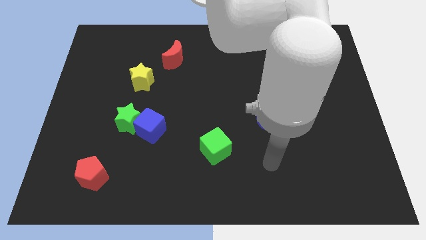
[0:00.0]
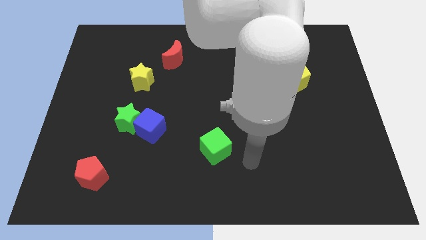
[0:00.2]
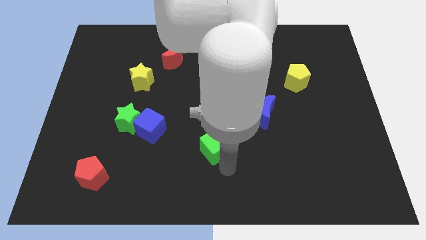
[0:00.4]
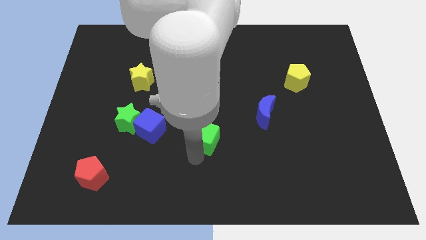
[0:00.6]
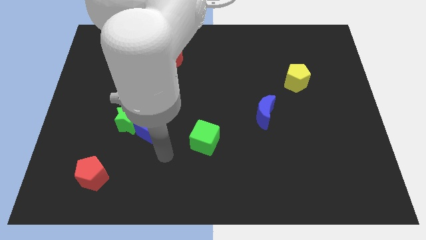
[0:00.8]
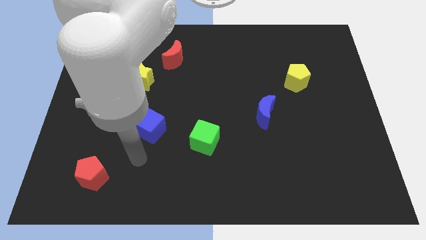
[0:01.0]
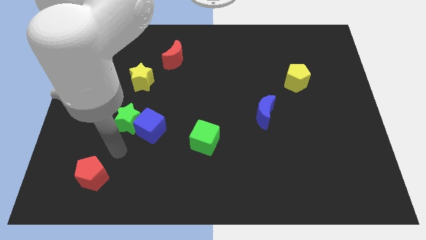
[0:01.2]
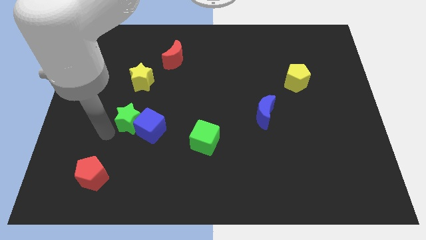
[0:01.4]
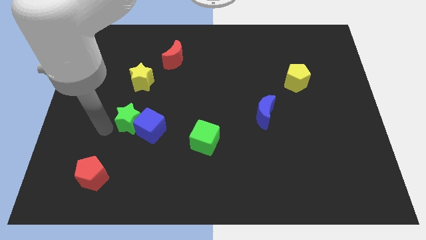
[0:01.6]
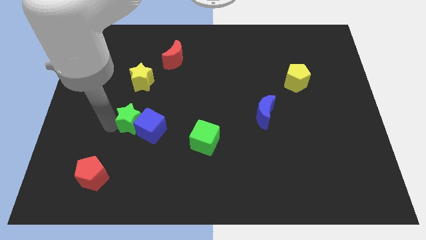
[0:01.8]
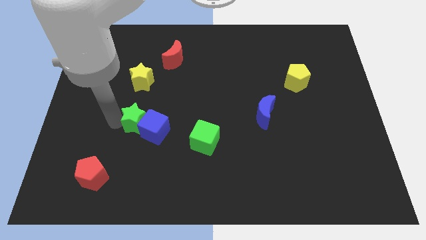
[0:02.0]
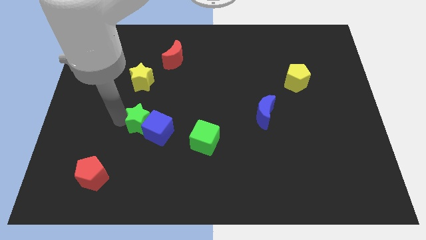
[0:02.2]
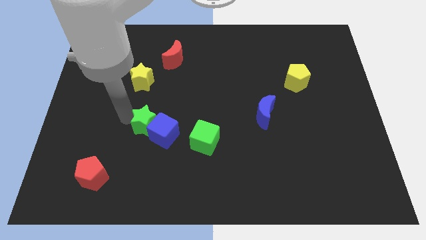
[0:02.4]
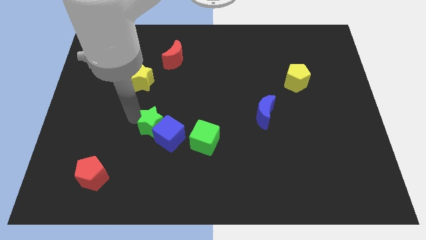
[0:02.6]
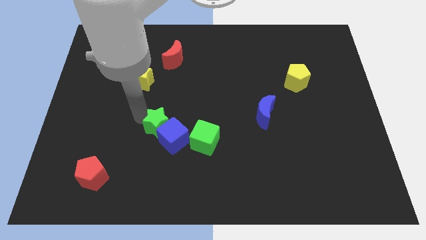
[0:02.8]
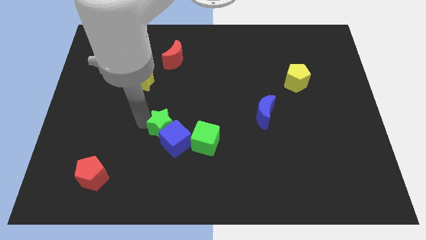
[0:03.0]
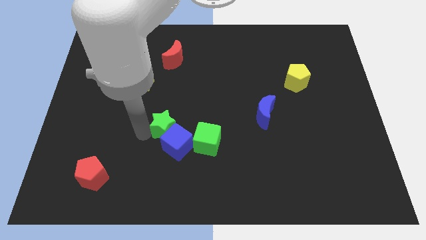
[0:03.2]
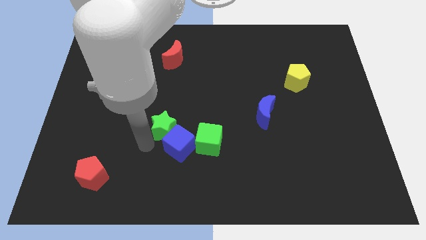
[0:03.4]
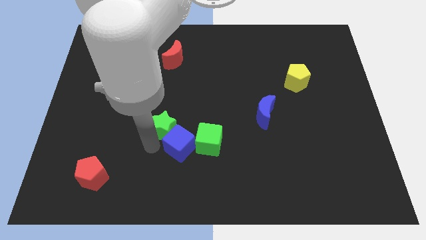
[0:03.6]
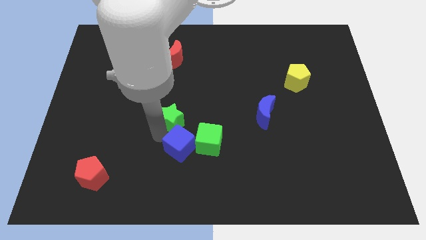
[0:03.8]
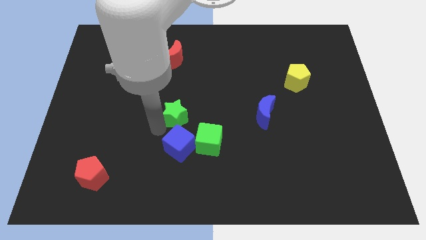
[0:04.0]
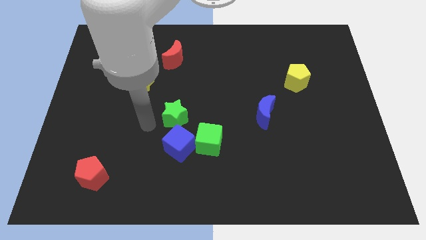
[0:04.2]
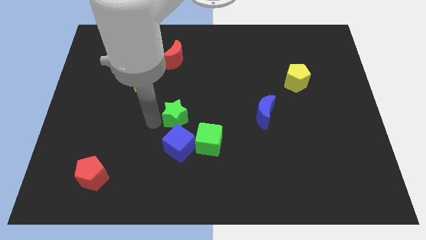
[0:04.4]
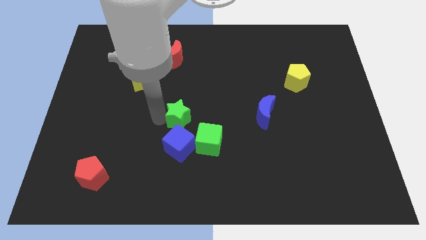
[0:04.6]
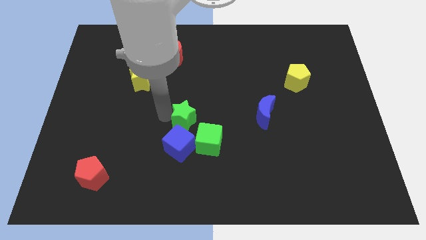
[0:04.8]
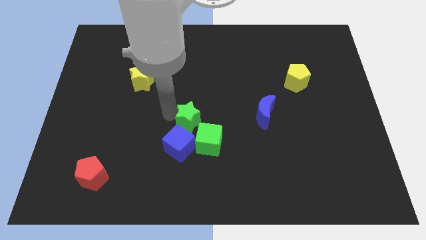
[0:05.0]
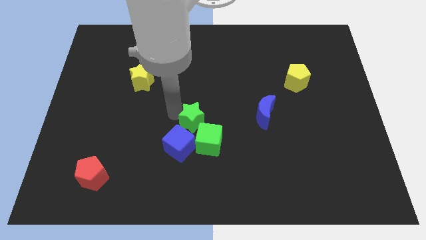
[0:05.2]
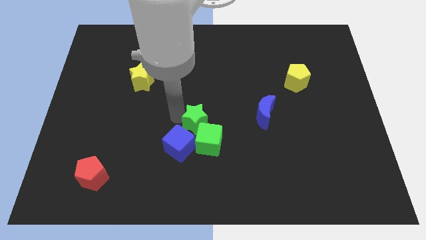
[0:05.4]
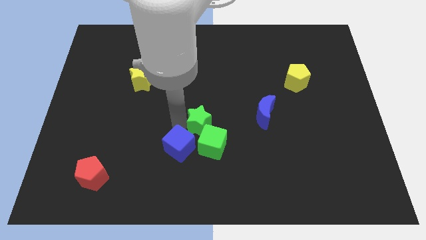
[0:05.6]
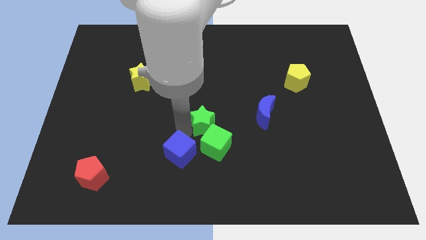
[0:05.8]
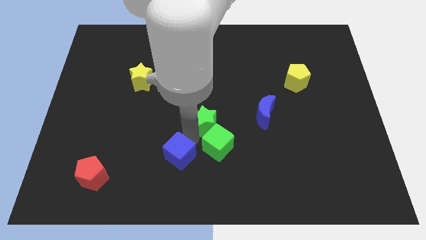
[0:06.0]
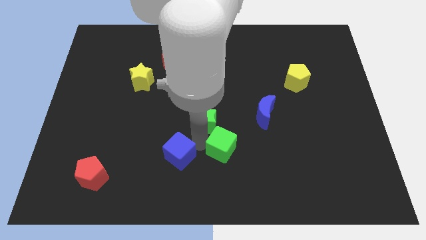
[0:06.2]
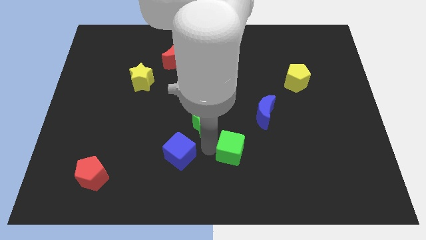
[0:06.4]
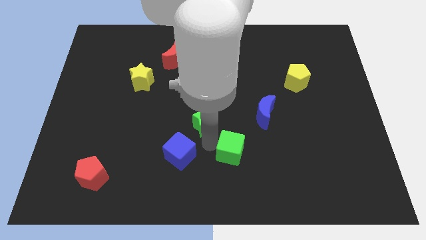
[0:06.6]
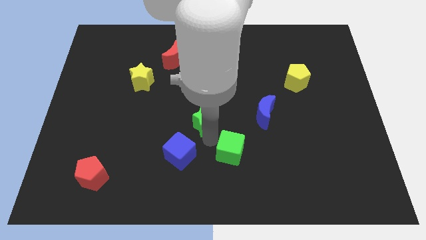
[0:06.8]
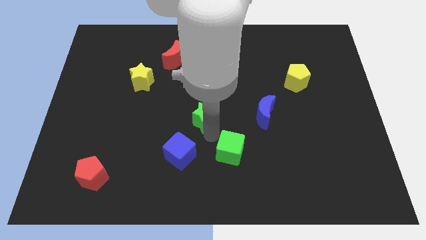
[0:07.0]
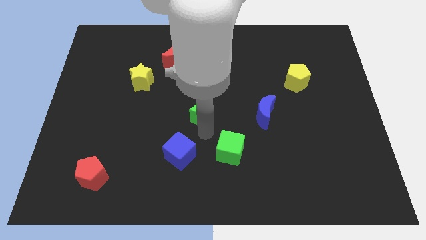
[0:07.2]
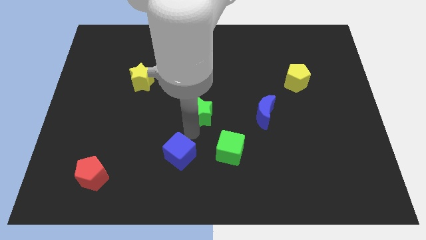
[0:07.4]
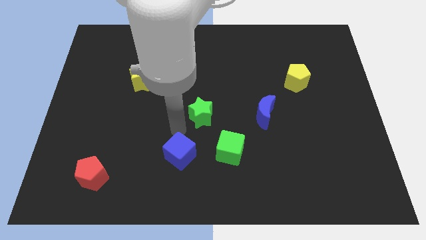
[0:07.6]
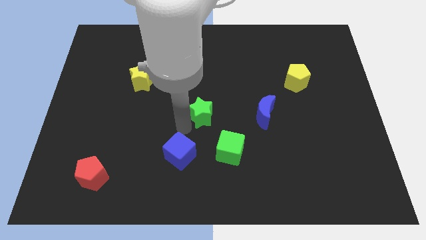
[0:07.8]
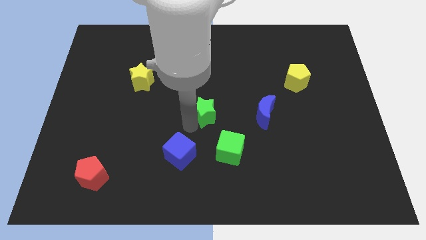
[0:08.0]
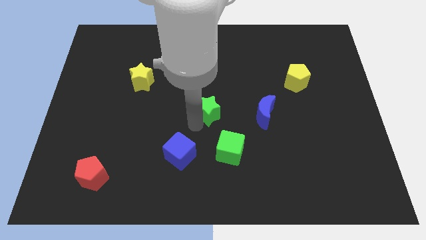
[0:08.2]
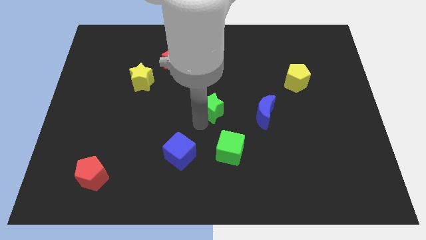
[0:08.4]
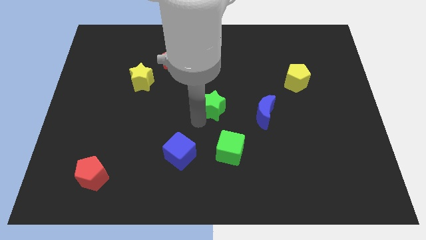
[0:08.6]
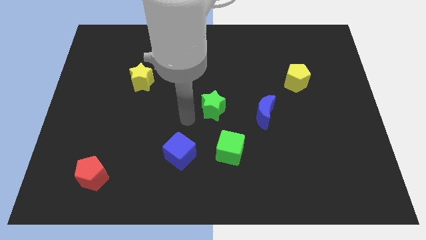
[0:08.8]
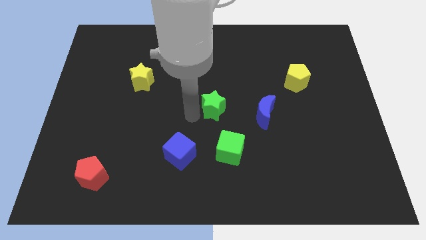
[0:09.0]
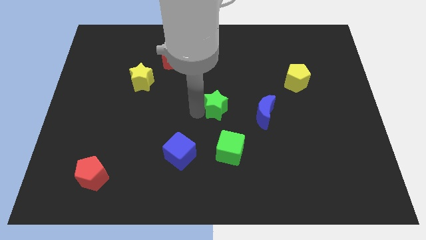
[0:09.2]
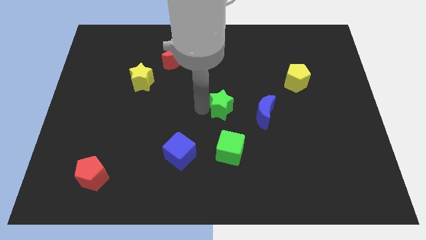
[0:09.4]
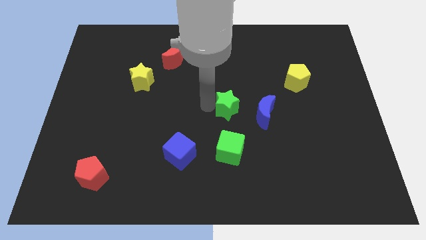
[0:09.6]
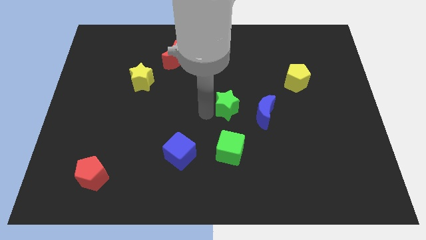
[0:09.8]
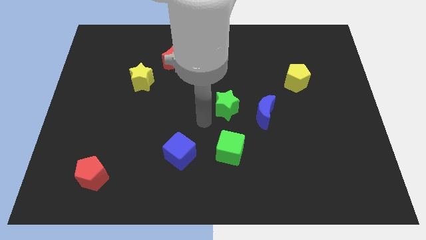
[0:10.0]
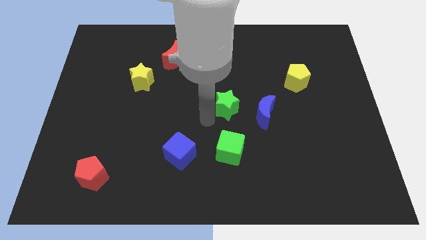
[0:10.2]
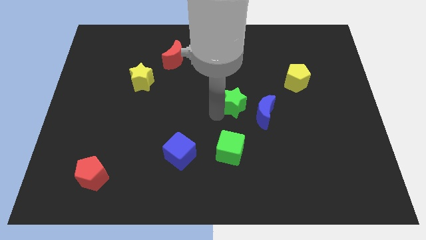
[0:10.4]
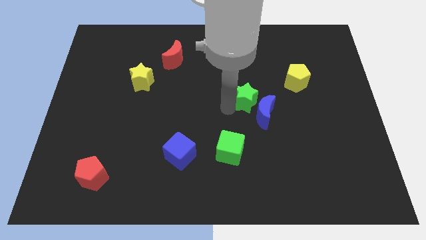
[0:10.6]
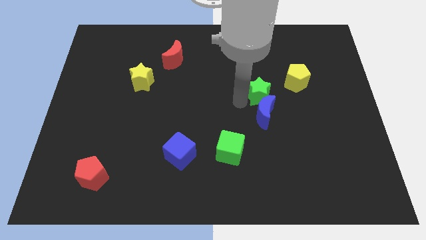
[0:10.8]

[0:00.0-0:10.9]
push the green star diagonally up and to the right of the blue moon

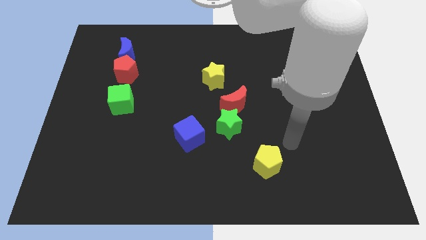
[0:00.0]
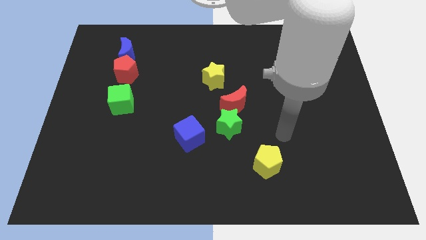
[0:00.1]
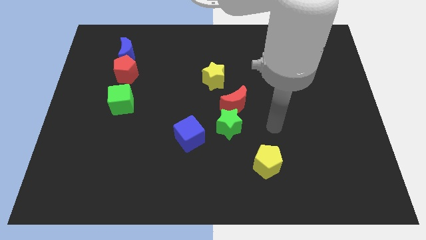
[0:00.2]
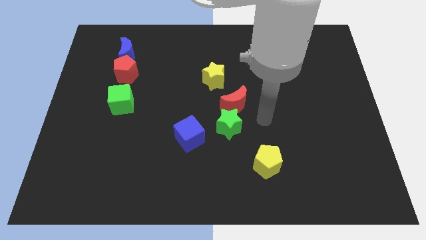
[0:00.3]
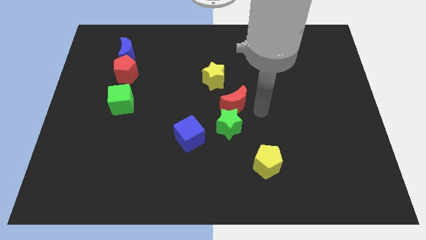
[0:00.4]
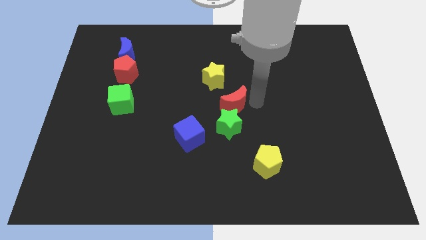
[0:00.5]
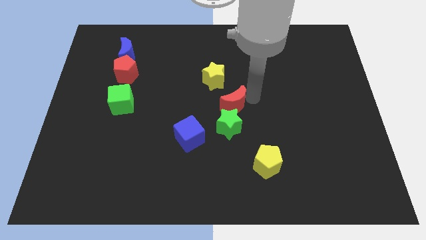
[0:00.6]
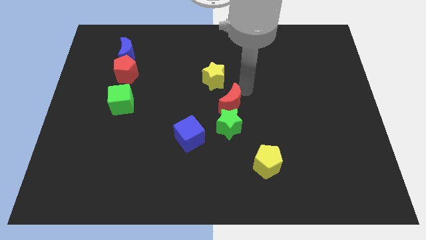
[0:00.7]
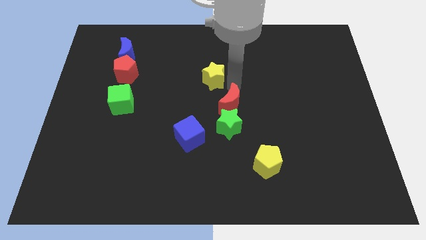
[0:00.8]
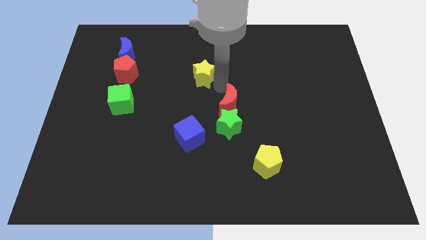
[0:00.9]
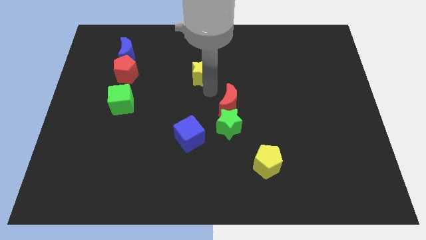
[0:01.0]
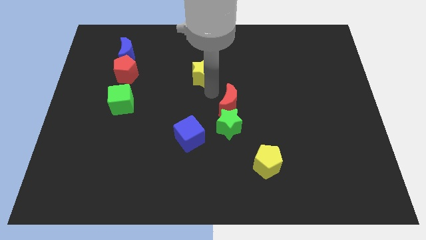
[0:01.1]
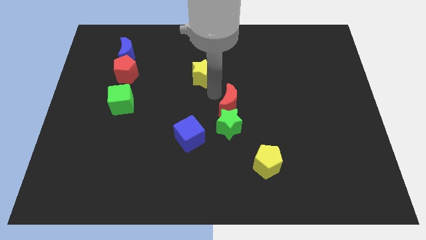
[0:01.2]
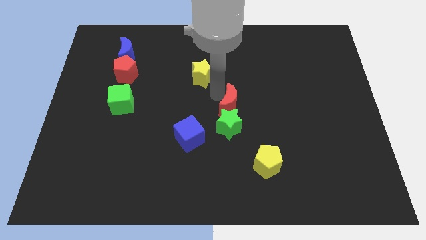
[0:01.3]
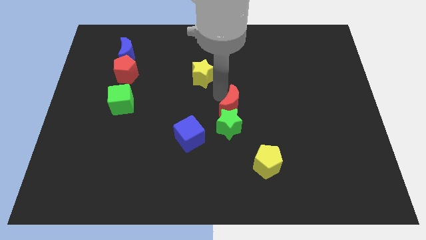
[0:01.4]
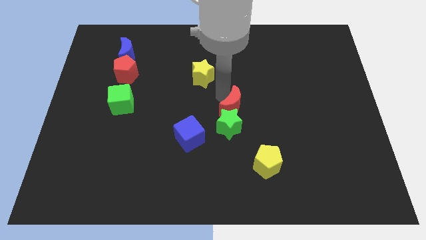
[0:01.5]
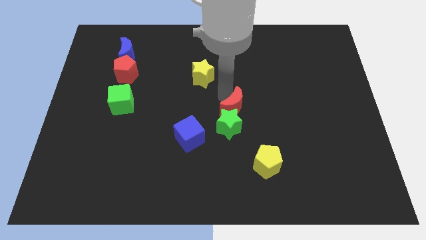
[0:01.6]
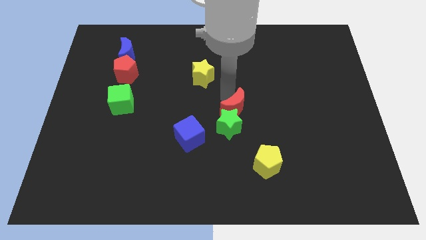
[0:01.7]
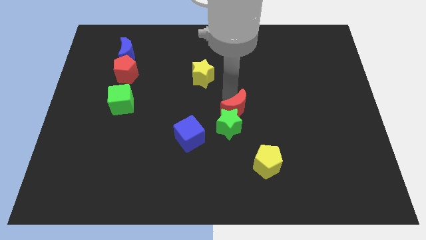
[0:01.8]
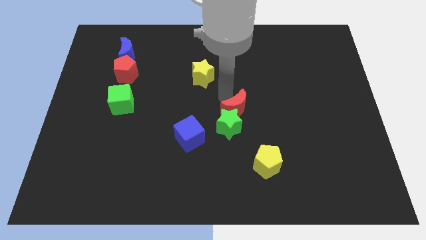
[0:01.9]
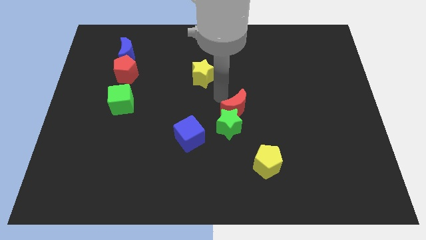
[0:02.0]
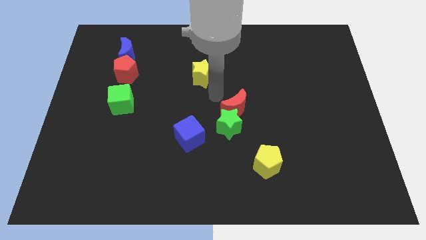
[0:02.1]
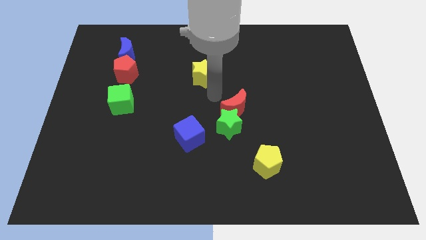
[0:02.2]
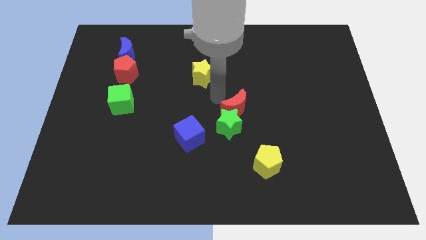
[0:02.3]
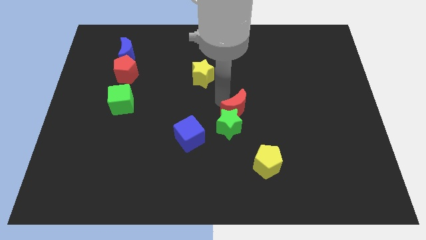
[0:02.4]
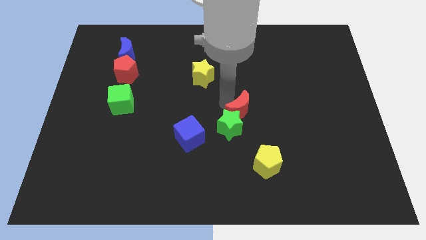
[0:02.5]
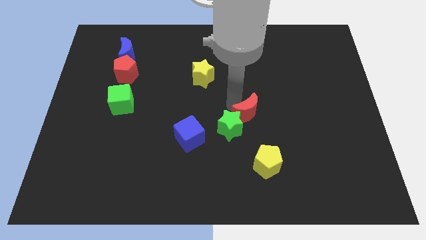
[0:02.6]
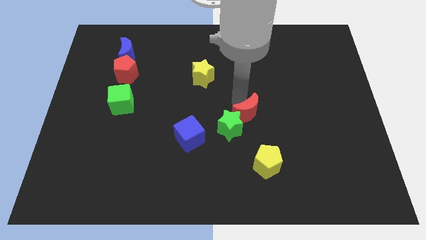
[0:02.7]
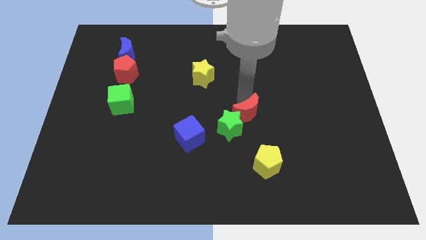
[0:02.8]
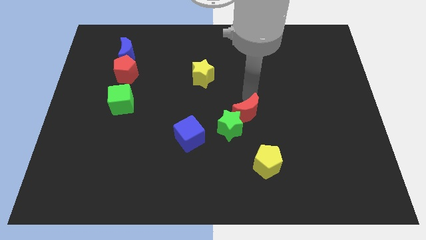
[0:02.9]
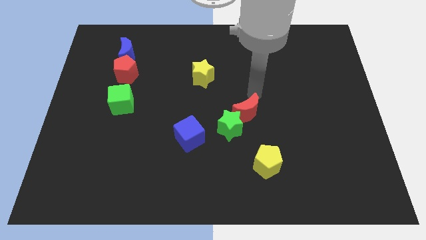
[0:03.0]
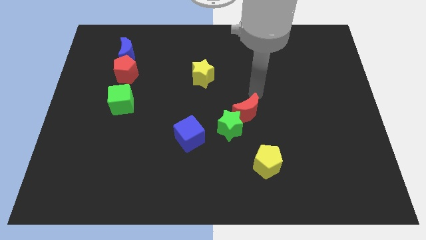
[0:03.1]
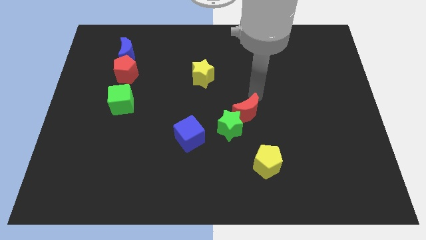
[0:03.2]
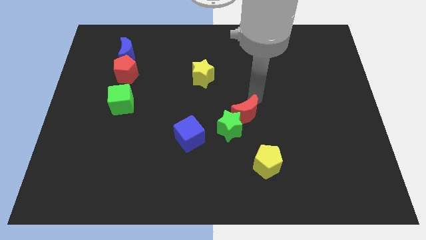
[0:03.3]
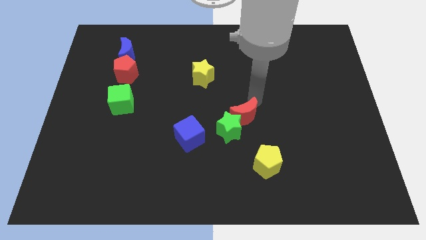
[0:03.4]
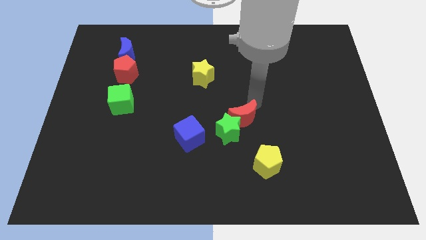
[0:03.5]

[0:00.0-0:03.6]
put the red moon to the right side of the blue cube
